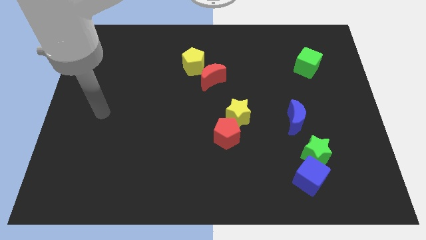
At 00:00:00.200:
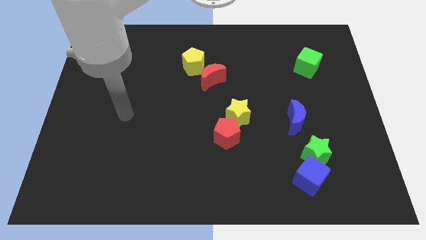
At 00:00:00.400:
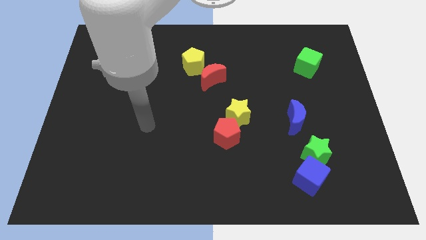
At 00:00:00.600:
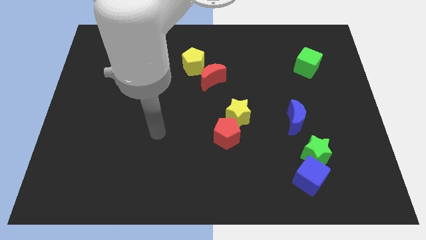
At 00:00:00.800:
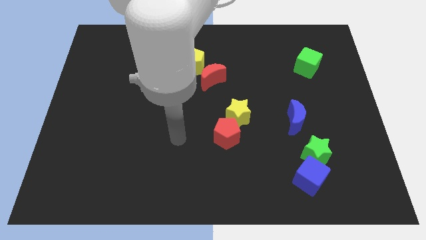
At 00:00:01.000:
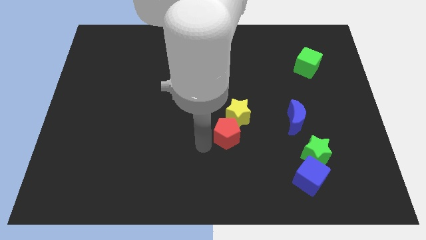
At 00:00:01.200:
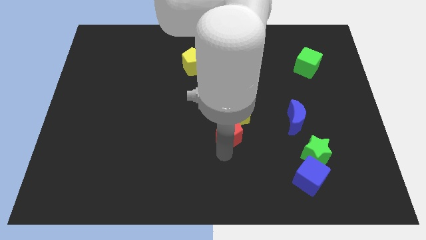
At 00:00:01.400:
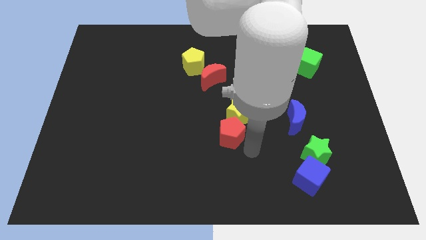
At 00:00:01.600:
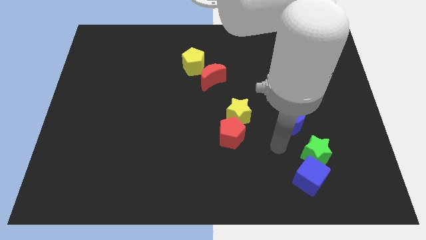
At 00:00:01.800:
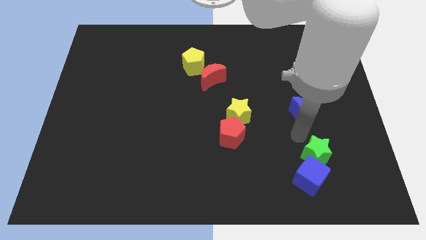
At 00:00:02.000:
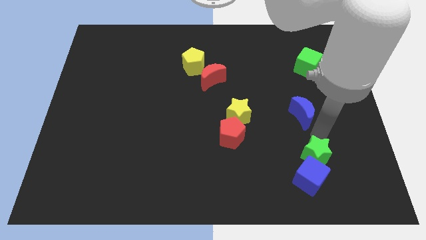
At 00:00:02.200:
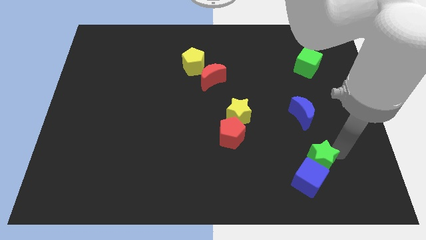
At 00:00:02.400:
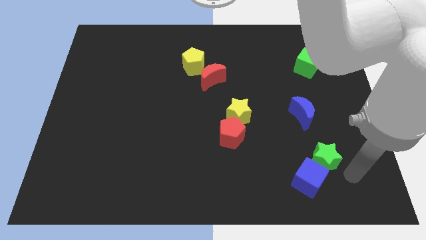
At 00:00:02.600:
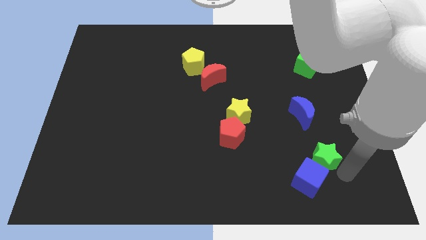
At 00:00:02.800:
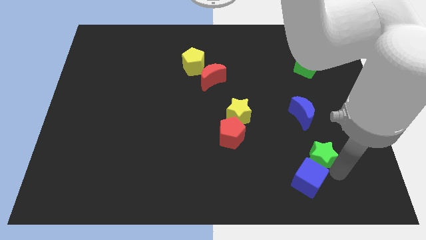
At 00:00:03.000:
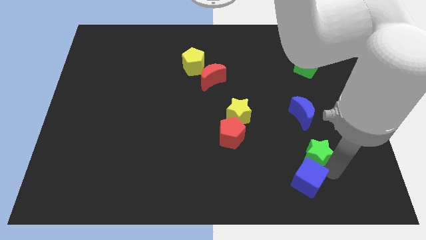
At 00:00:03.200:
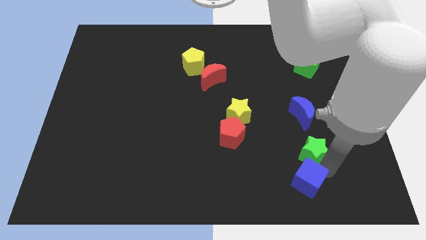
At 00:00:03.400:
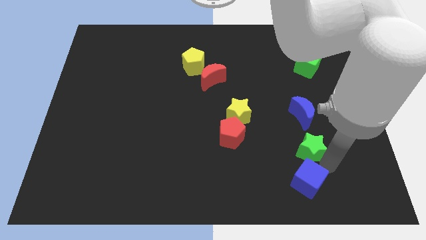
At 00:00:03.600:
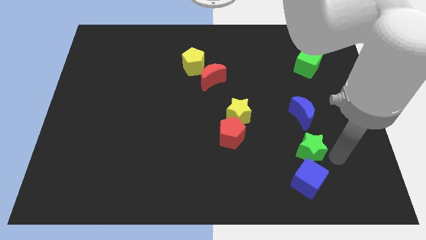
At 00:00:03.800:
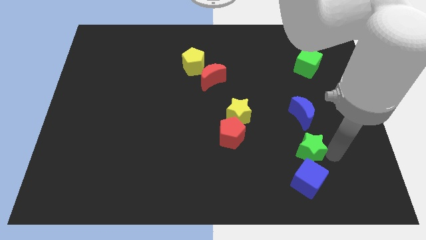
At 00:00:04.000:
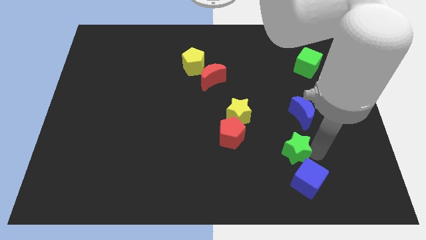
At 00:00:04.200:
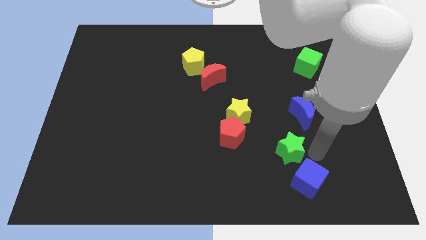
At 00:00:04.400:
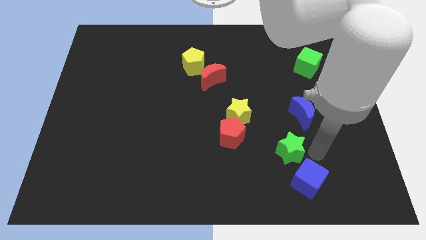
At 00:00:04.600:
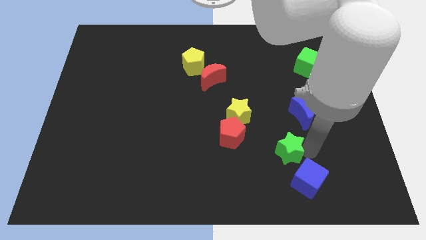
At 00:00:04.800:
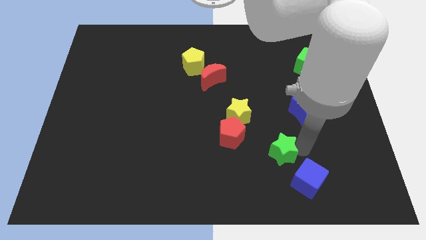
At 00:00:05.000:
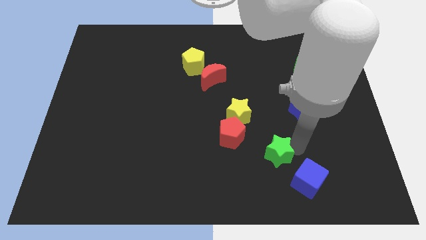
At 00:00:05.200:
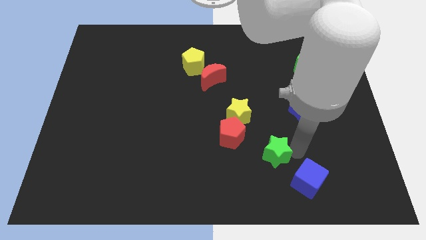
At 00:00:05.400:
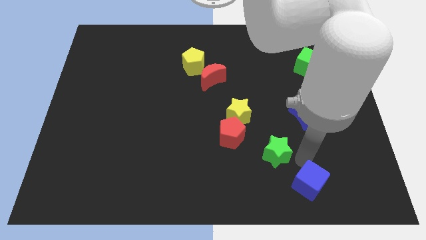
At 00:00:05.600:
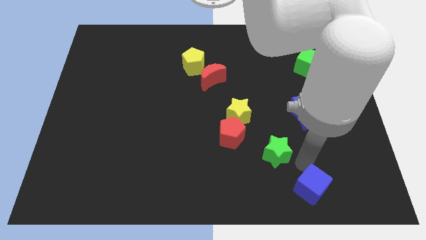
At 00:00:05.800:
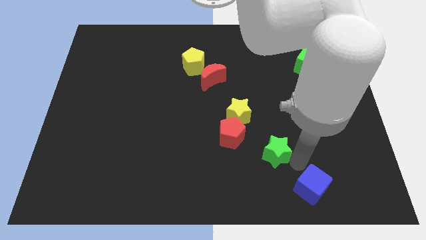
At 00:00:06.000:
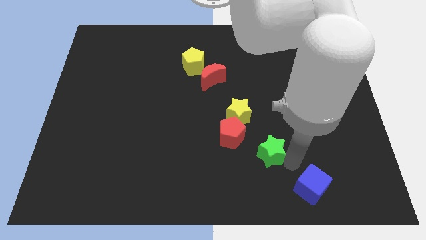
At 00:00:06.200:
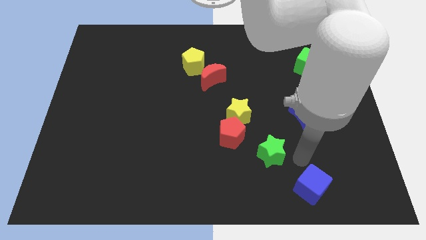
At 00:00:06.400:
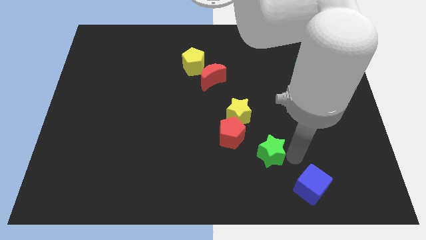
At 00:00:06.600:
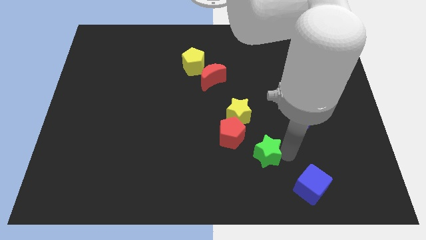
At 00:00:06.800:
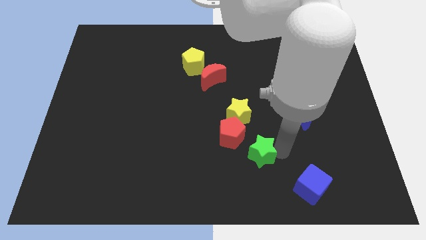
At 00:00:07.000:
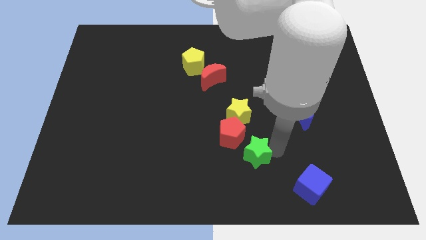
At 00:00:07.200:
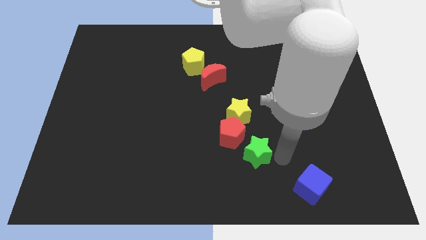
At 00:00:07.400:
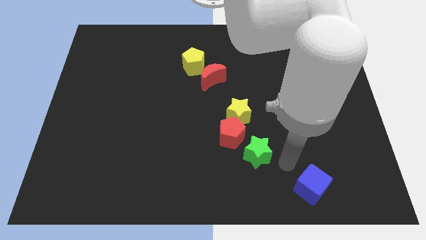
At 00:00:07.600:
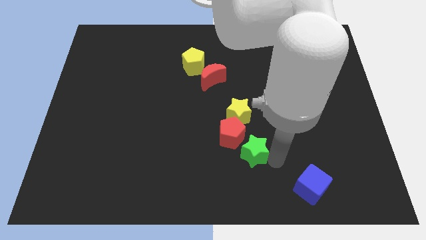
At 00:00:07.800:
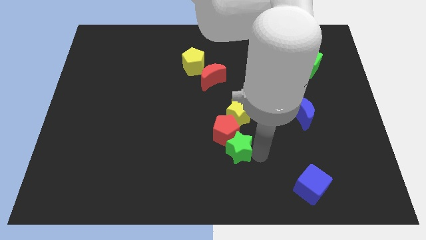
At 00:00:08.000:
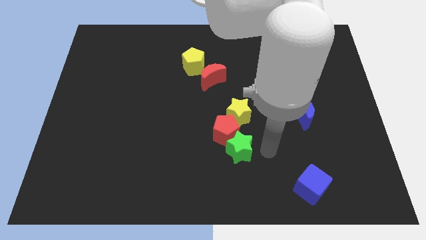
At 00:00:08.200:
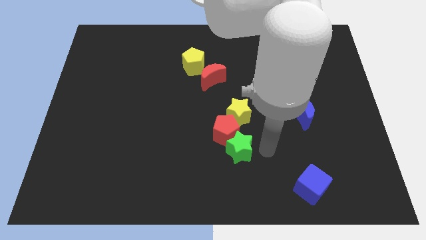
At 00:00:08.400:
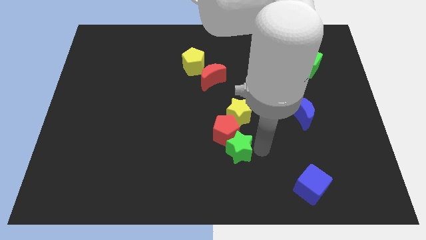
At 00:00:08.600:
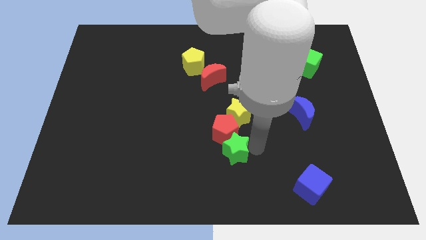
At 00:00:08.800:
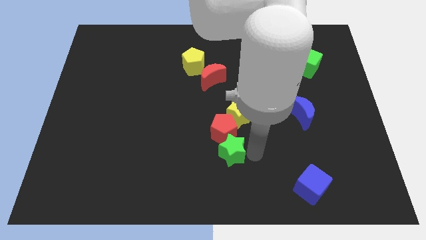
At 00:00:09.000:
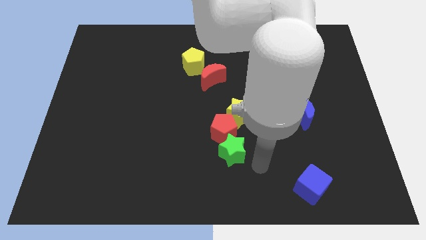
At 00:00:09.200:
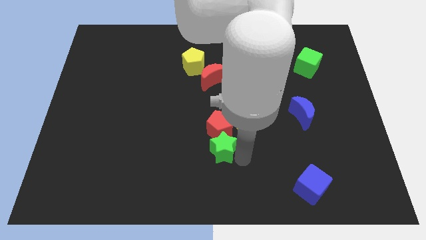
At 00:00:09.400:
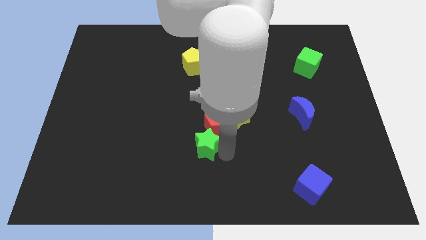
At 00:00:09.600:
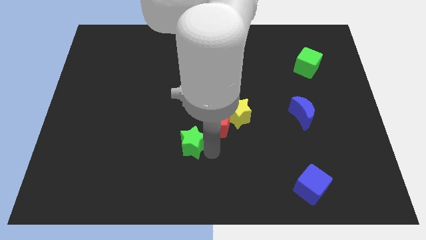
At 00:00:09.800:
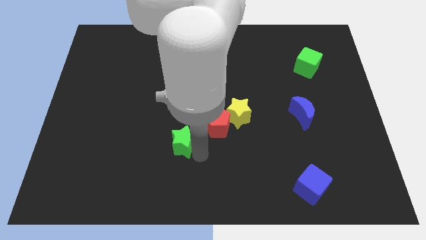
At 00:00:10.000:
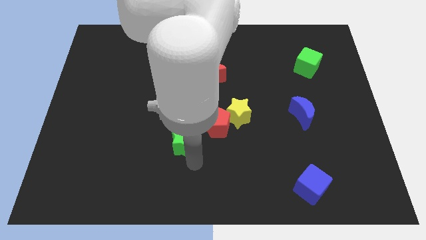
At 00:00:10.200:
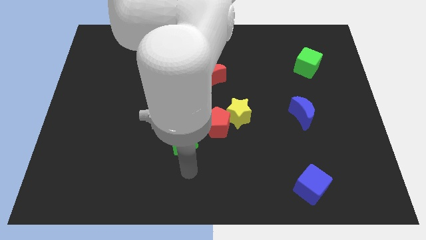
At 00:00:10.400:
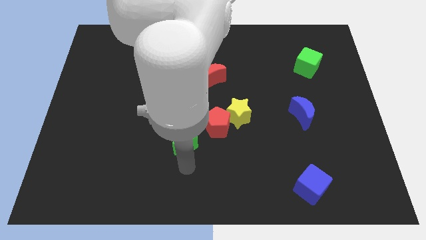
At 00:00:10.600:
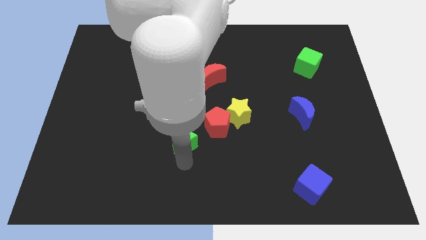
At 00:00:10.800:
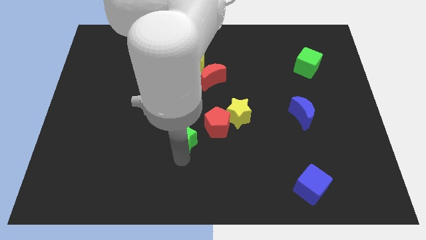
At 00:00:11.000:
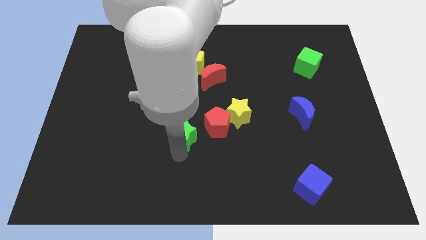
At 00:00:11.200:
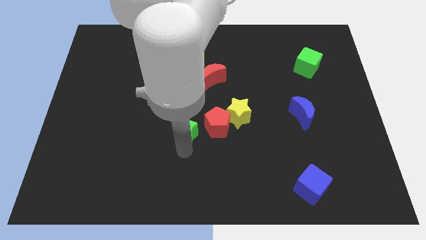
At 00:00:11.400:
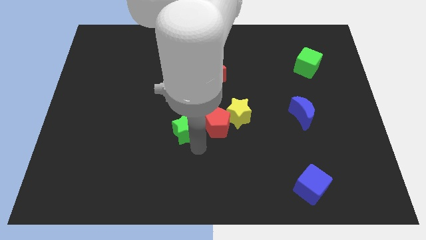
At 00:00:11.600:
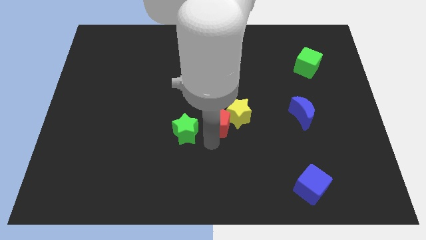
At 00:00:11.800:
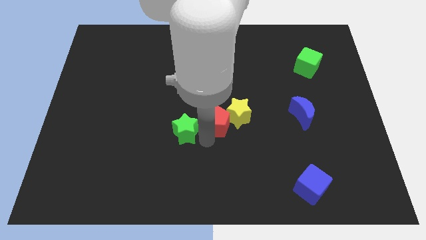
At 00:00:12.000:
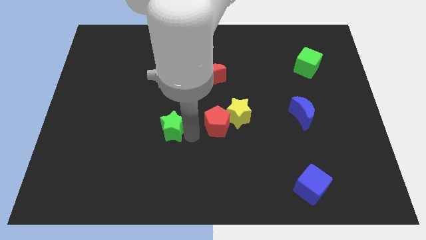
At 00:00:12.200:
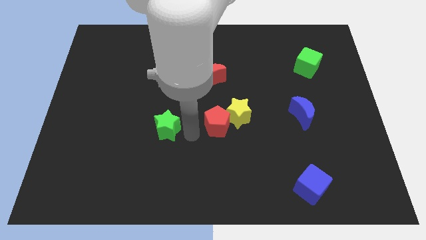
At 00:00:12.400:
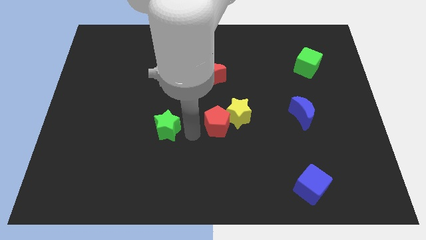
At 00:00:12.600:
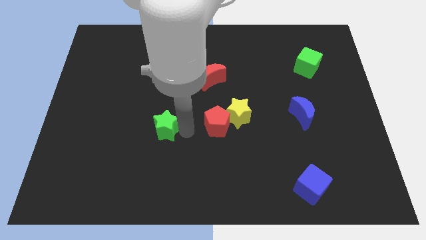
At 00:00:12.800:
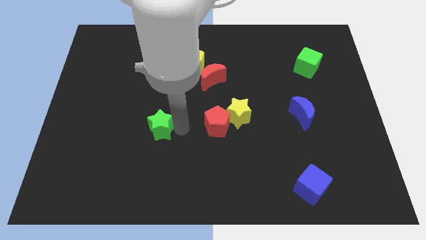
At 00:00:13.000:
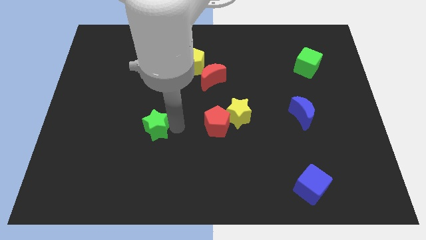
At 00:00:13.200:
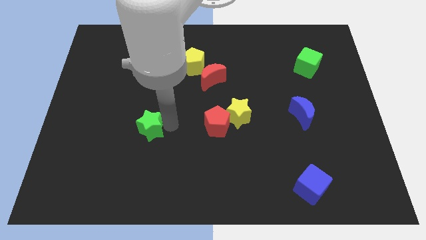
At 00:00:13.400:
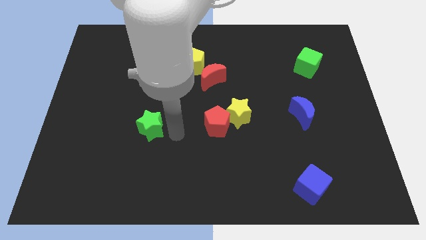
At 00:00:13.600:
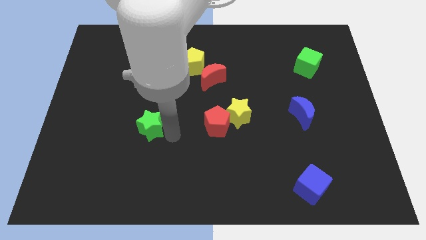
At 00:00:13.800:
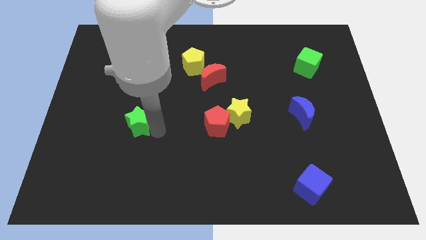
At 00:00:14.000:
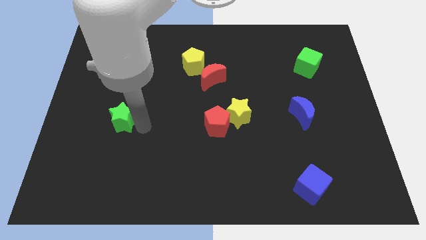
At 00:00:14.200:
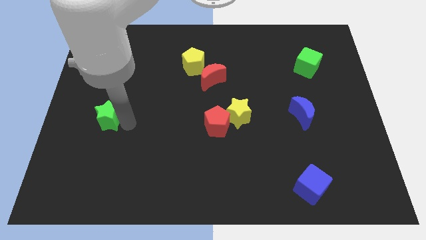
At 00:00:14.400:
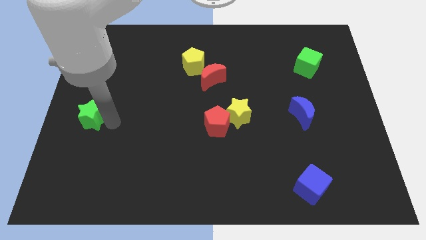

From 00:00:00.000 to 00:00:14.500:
put the green star to the left side
